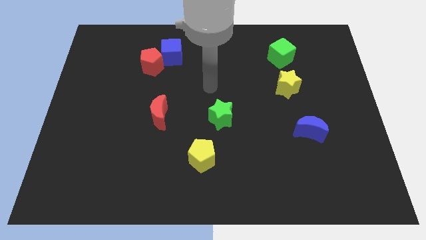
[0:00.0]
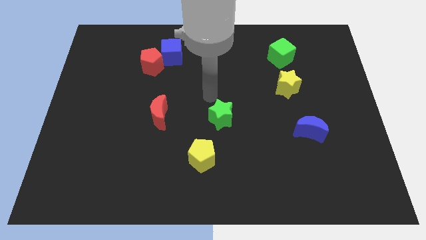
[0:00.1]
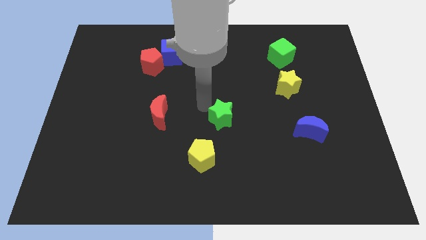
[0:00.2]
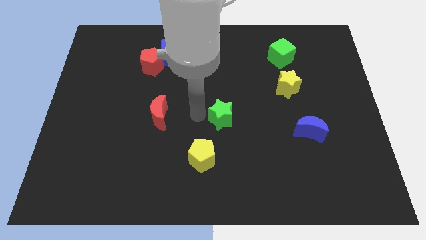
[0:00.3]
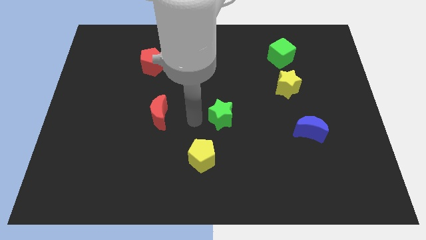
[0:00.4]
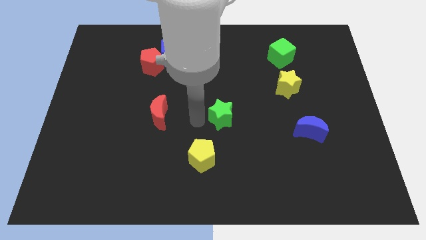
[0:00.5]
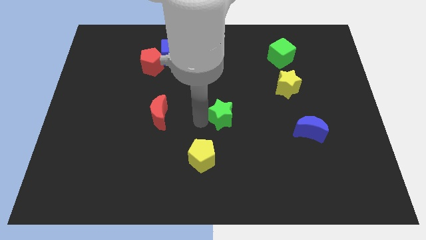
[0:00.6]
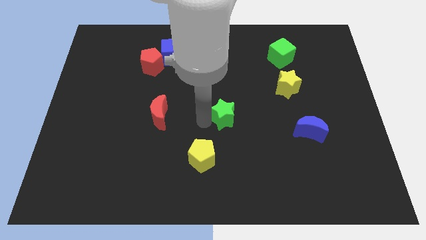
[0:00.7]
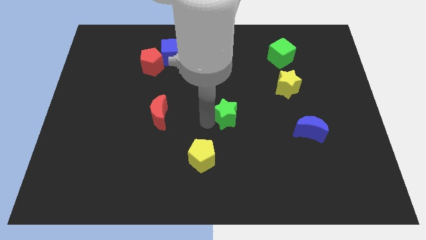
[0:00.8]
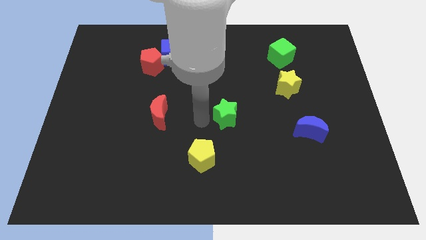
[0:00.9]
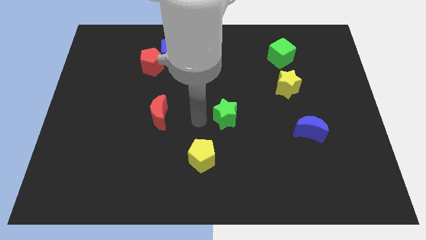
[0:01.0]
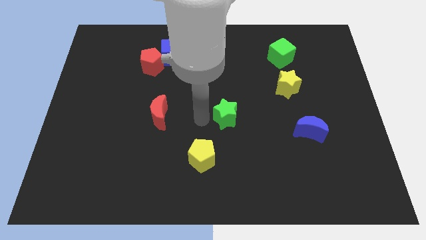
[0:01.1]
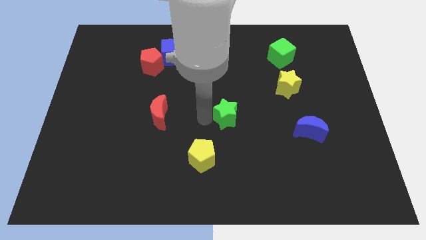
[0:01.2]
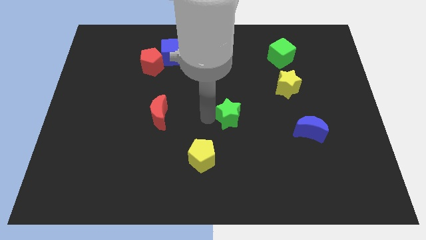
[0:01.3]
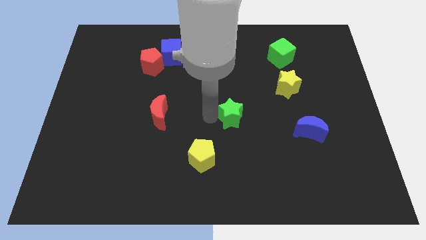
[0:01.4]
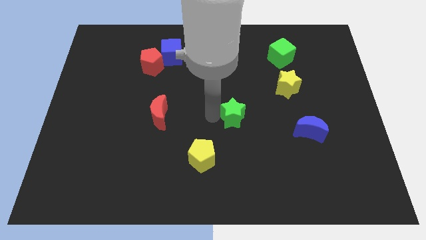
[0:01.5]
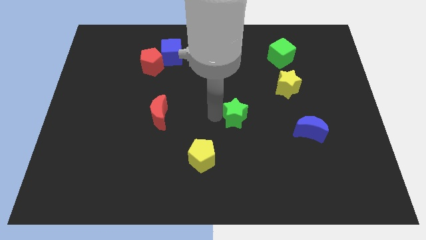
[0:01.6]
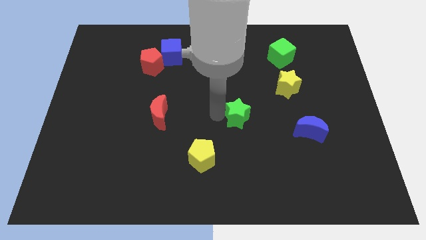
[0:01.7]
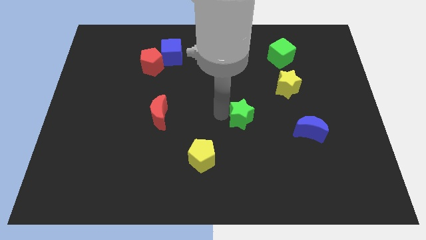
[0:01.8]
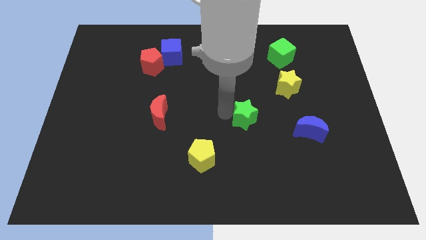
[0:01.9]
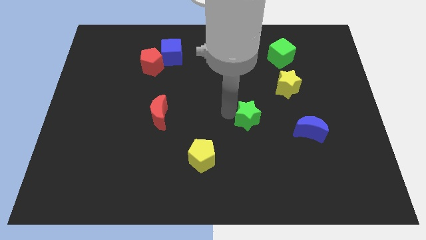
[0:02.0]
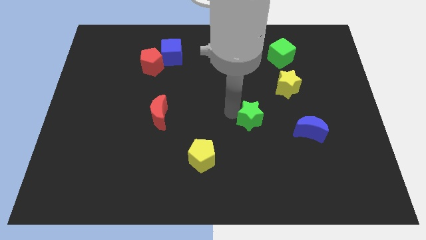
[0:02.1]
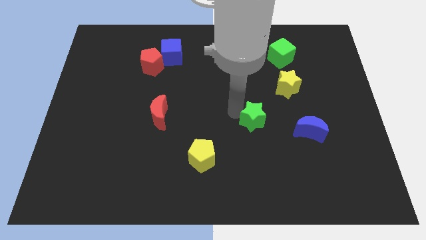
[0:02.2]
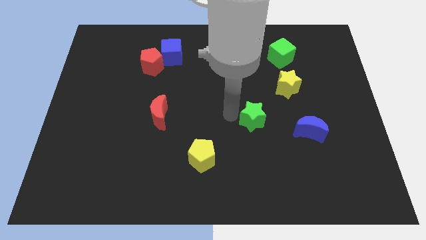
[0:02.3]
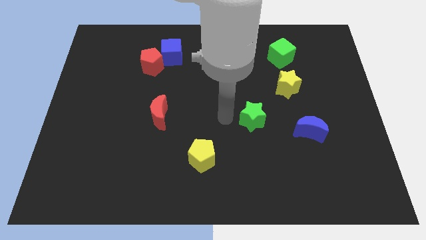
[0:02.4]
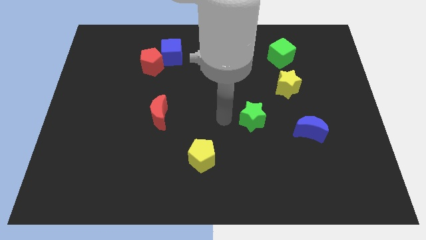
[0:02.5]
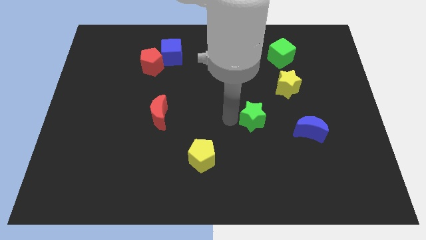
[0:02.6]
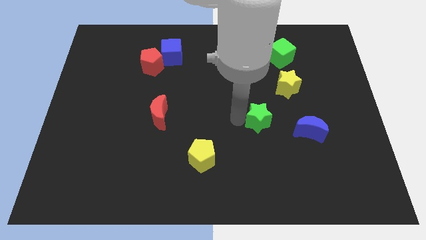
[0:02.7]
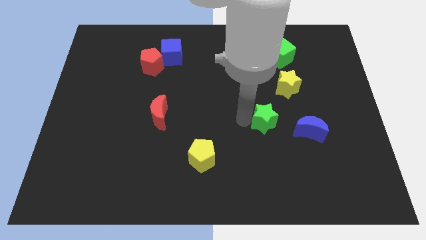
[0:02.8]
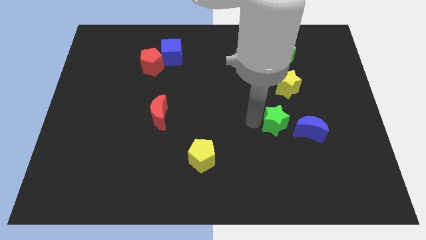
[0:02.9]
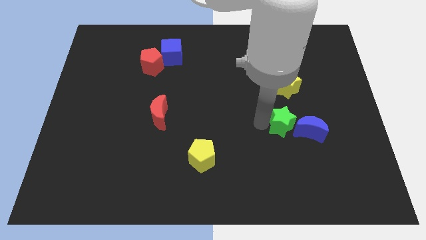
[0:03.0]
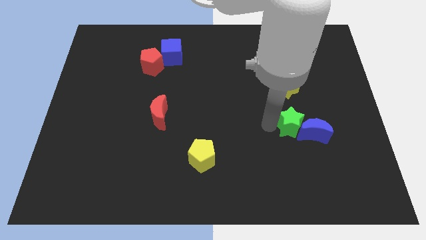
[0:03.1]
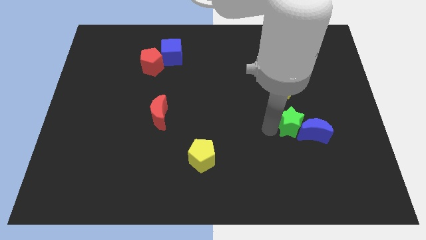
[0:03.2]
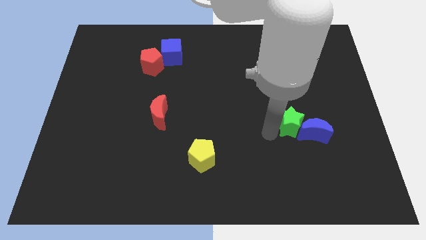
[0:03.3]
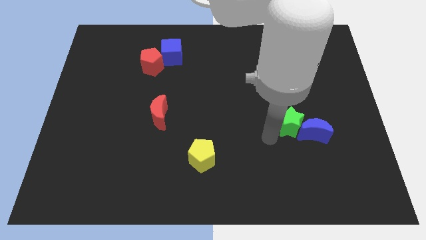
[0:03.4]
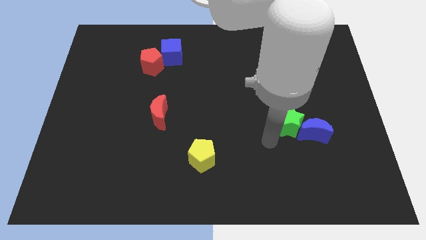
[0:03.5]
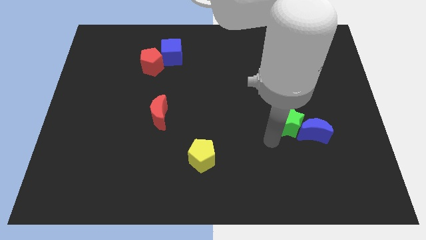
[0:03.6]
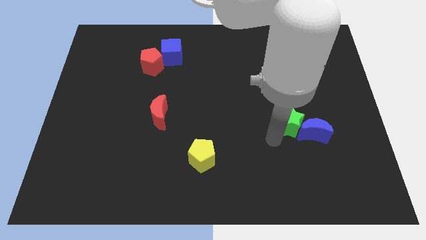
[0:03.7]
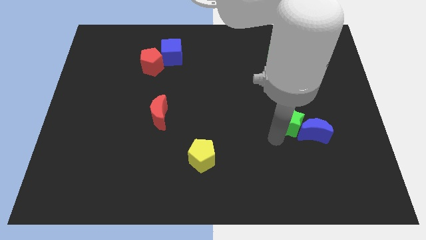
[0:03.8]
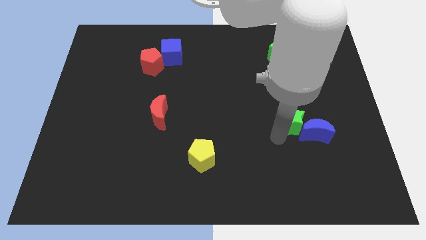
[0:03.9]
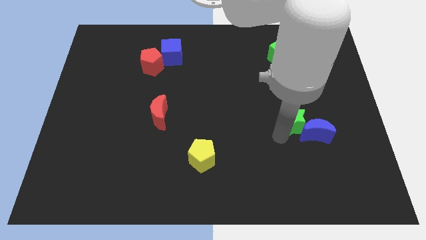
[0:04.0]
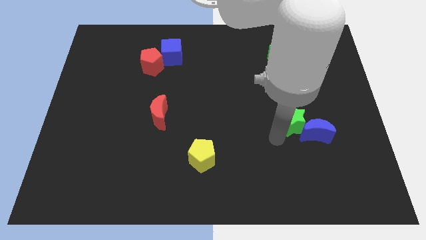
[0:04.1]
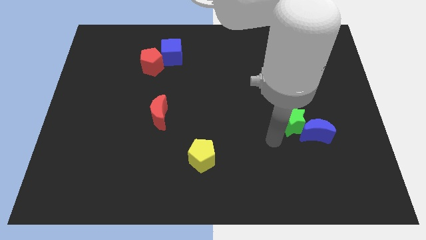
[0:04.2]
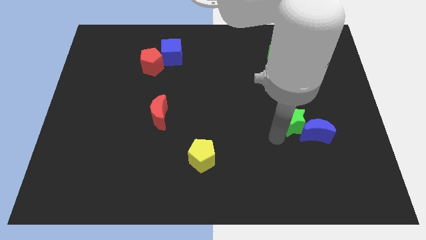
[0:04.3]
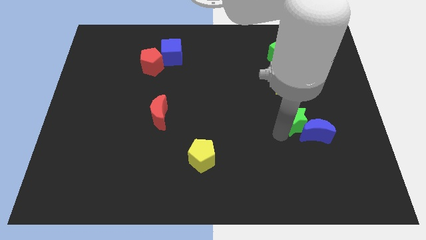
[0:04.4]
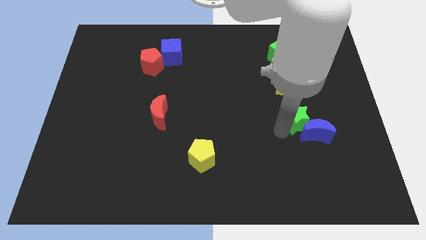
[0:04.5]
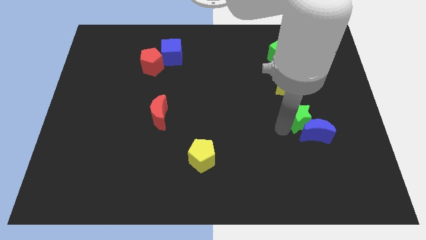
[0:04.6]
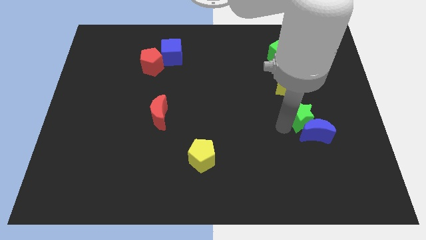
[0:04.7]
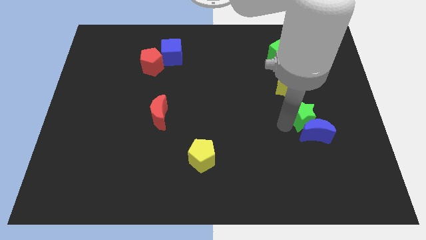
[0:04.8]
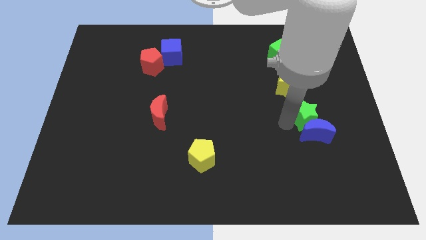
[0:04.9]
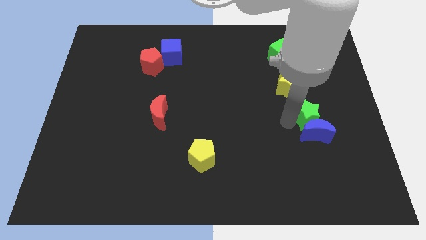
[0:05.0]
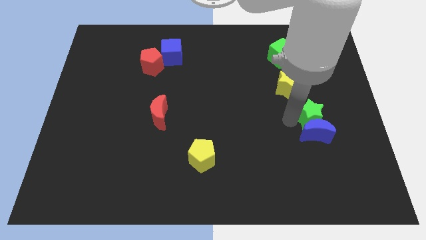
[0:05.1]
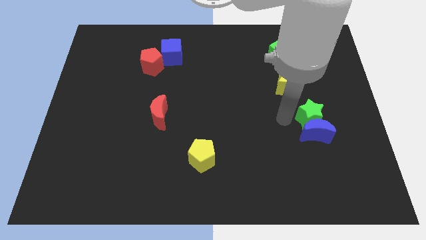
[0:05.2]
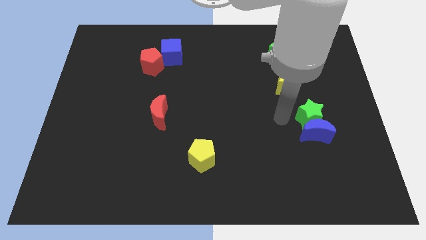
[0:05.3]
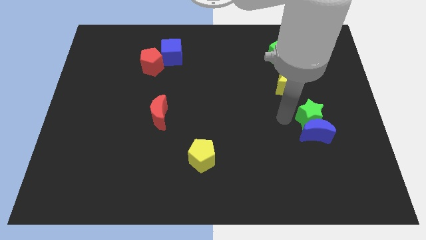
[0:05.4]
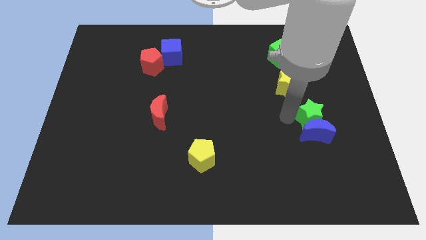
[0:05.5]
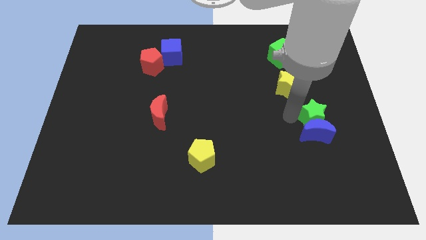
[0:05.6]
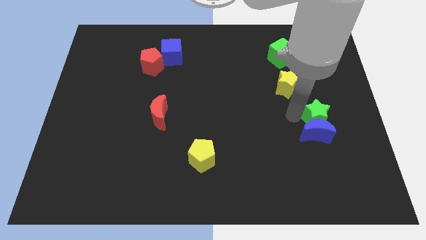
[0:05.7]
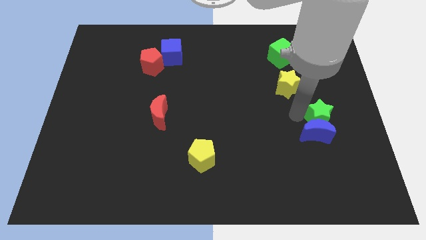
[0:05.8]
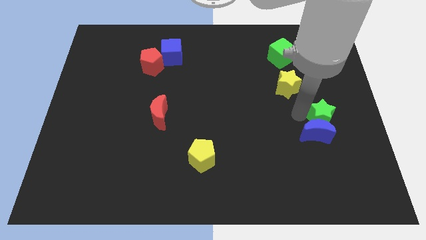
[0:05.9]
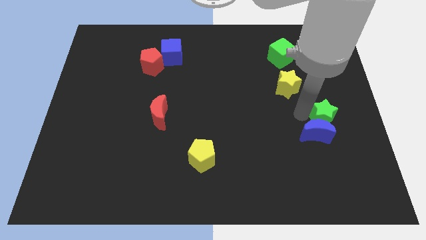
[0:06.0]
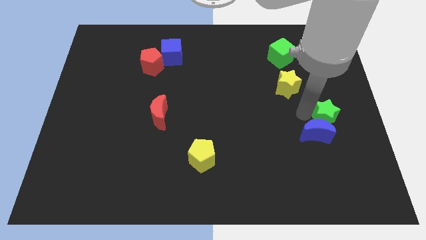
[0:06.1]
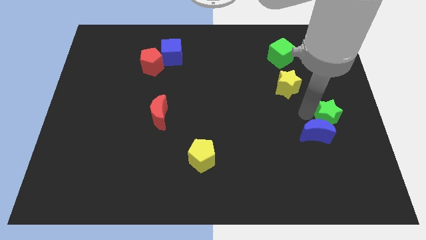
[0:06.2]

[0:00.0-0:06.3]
put the green star to the center right

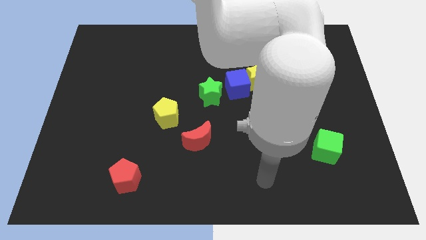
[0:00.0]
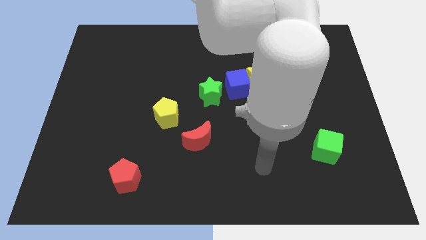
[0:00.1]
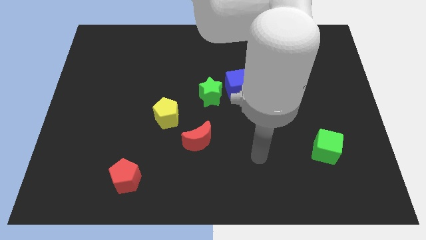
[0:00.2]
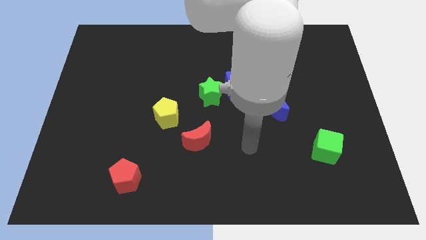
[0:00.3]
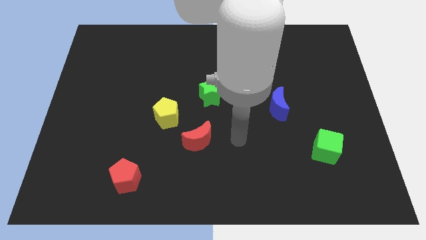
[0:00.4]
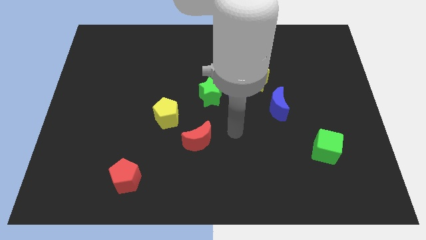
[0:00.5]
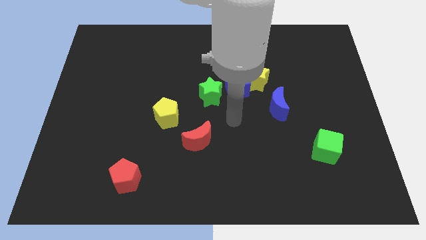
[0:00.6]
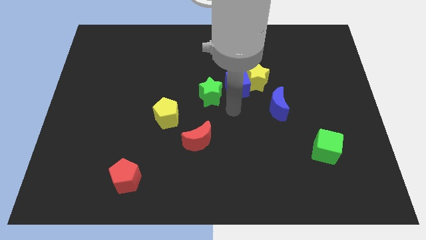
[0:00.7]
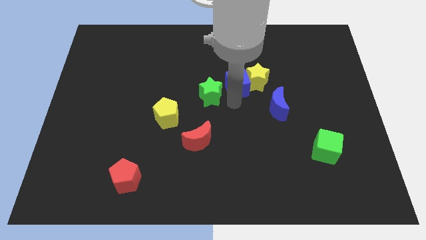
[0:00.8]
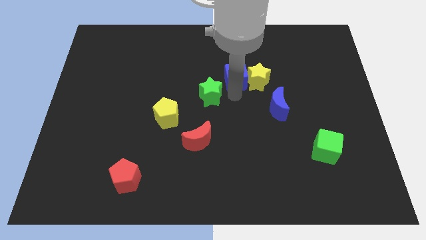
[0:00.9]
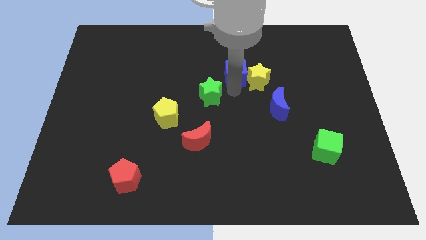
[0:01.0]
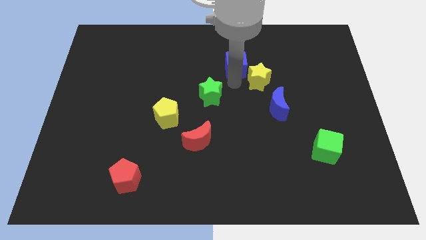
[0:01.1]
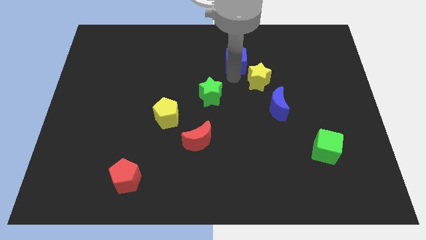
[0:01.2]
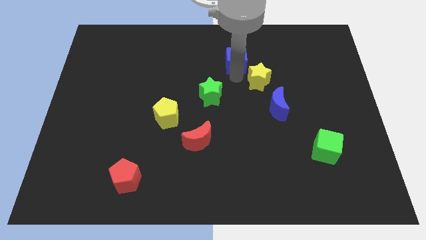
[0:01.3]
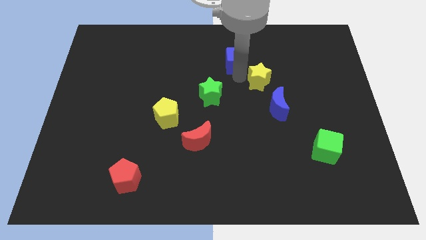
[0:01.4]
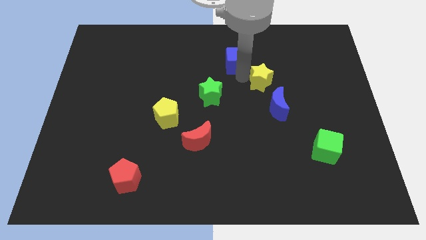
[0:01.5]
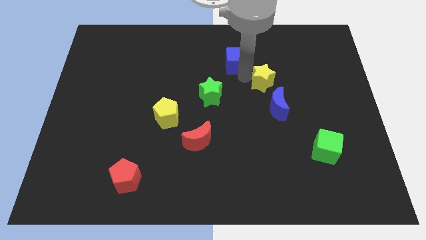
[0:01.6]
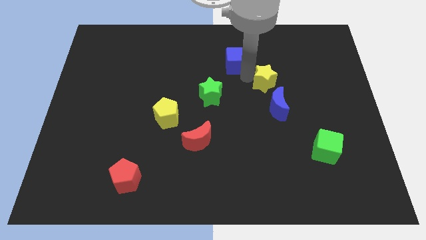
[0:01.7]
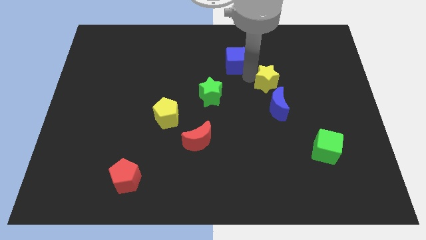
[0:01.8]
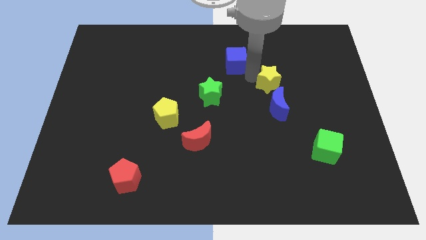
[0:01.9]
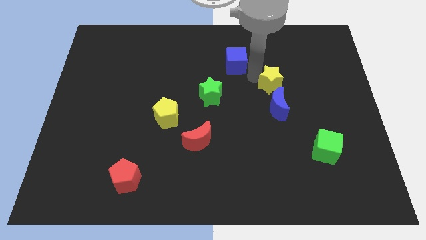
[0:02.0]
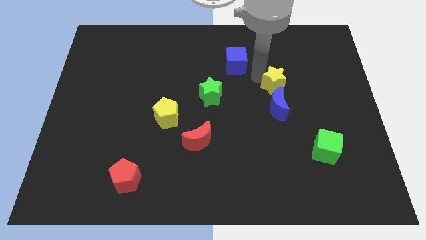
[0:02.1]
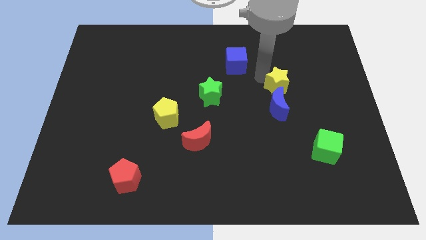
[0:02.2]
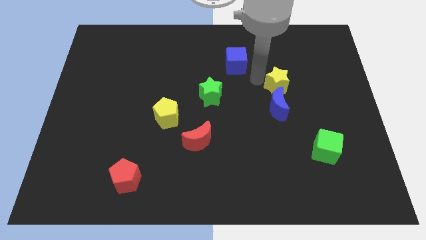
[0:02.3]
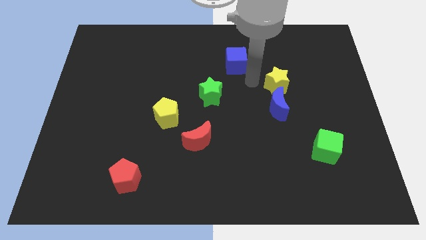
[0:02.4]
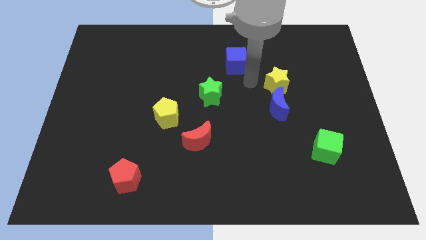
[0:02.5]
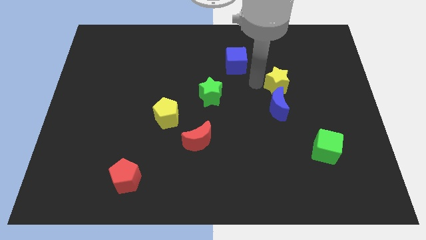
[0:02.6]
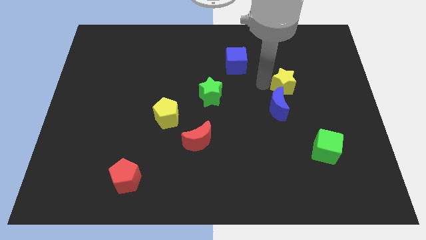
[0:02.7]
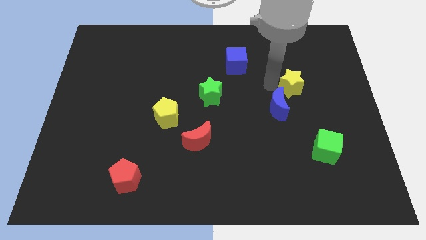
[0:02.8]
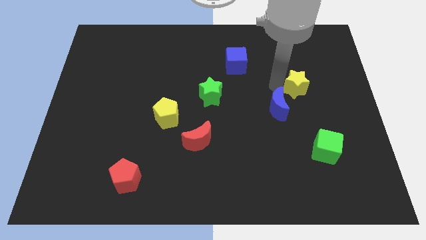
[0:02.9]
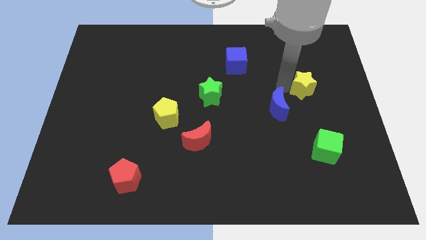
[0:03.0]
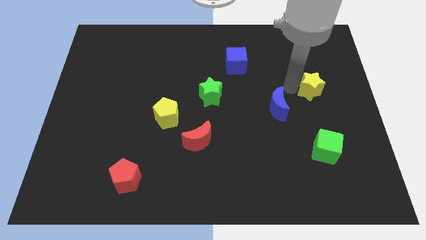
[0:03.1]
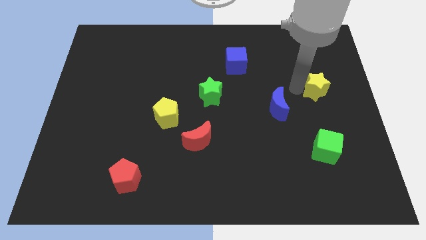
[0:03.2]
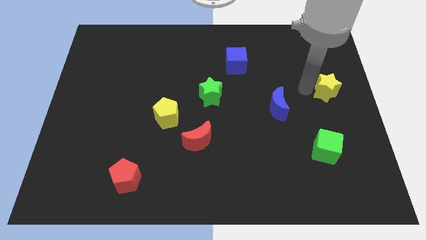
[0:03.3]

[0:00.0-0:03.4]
put the yellow star to the right side of the board
